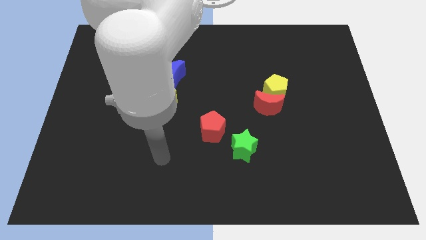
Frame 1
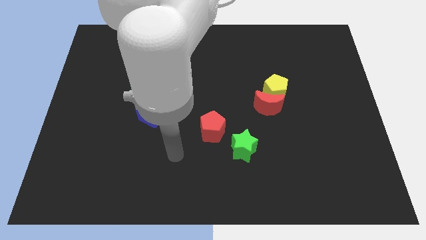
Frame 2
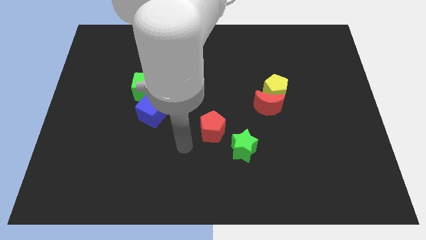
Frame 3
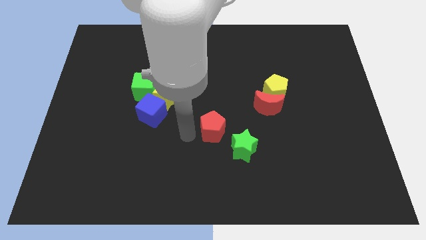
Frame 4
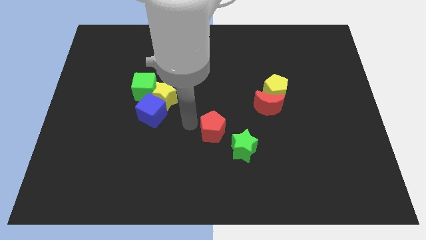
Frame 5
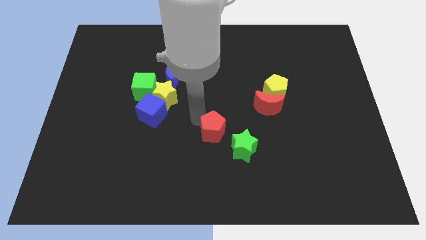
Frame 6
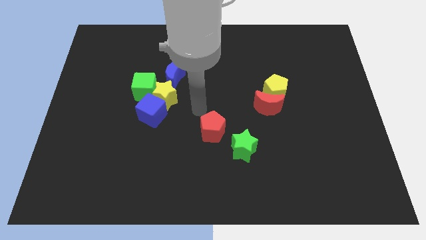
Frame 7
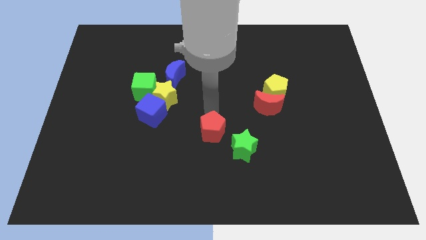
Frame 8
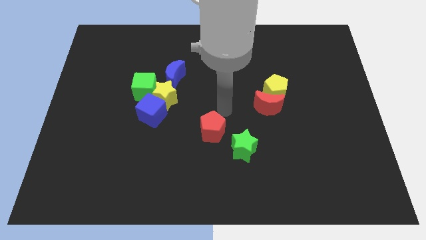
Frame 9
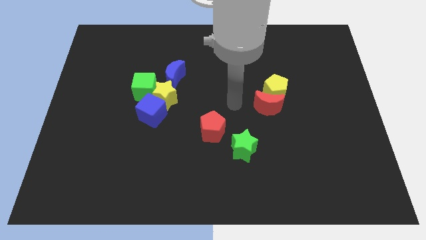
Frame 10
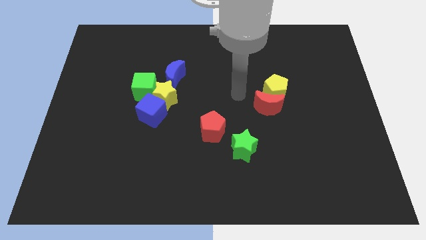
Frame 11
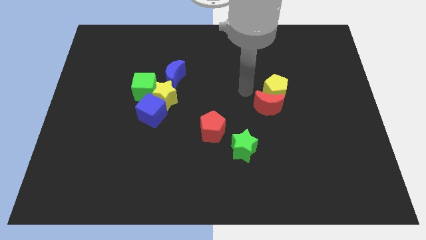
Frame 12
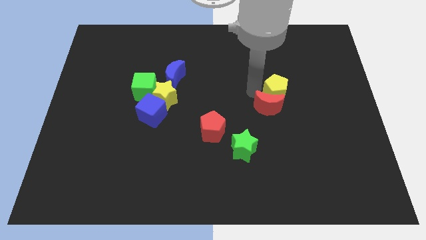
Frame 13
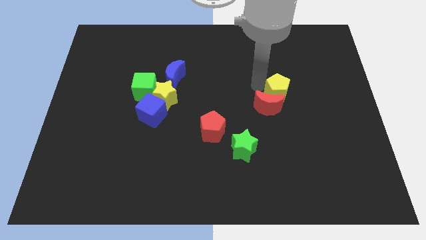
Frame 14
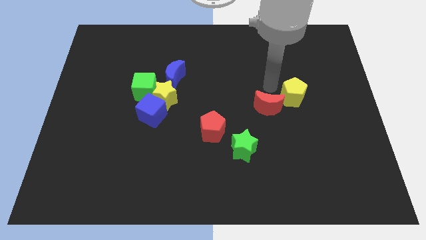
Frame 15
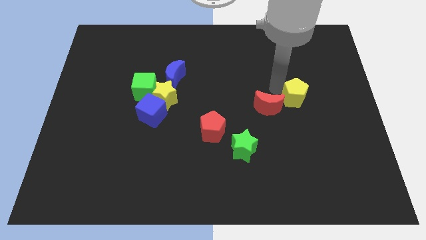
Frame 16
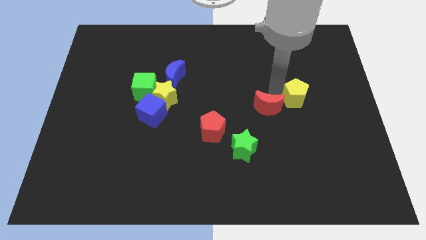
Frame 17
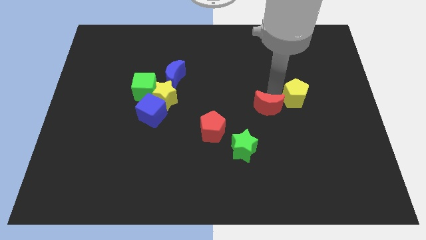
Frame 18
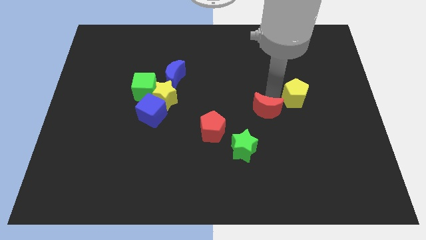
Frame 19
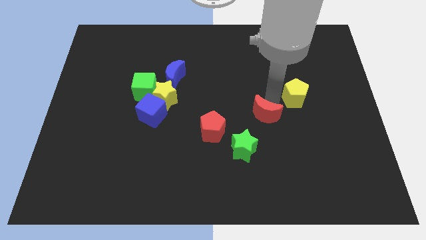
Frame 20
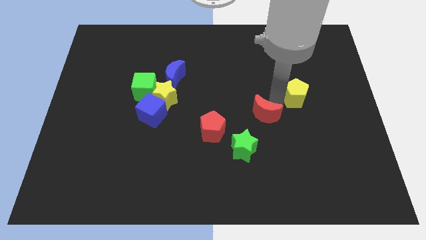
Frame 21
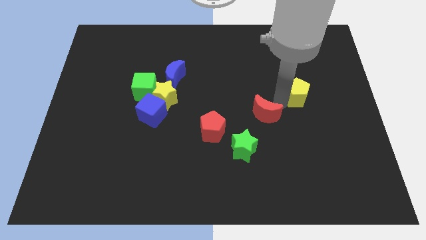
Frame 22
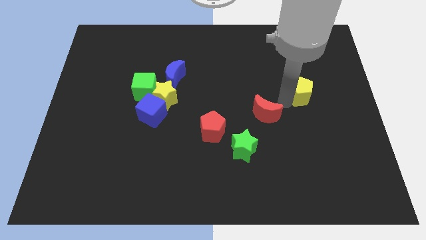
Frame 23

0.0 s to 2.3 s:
pull the red moon apart from the yellow pentagon

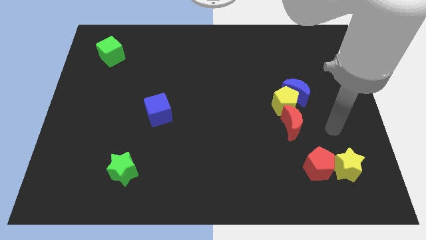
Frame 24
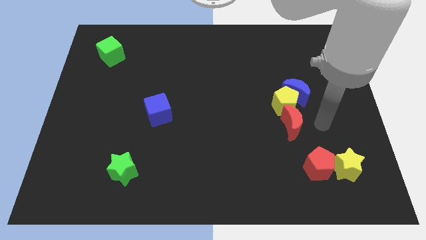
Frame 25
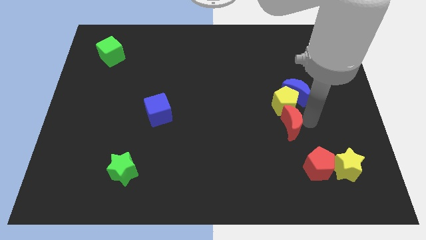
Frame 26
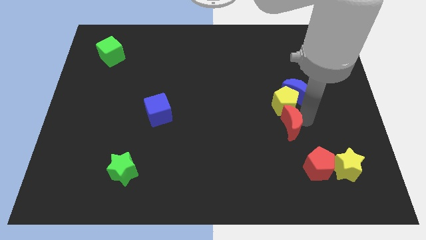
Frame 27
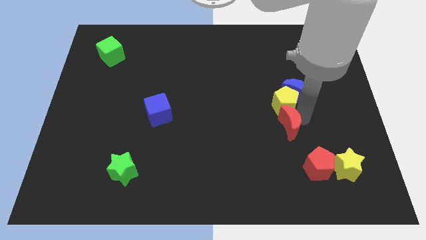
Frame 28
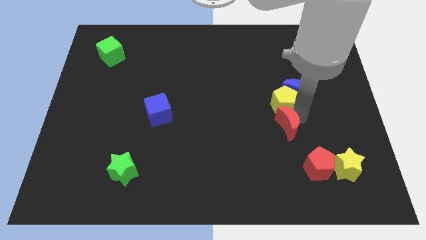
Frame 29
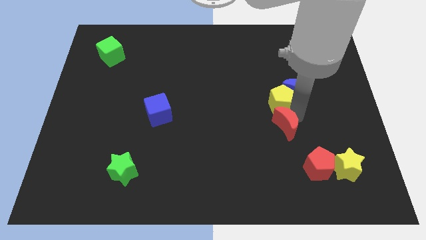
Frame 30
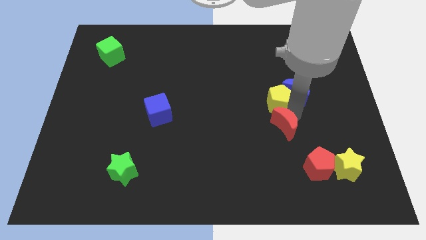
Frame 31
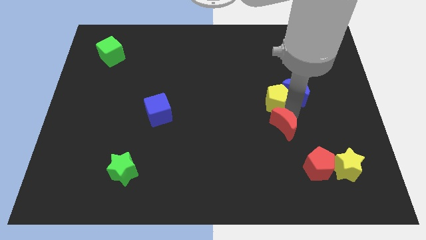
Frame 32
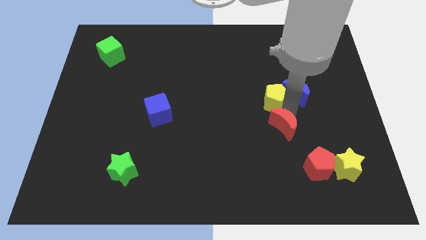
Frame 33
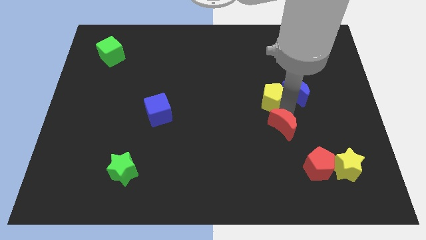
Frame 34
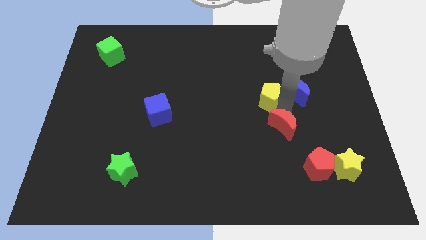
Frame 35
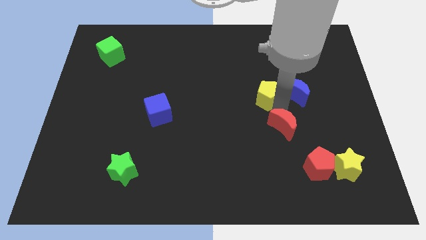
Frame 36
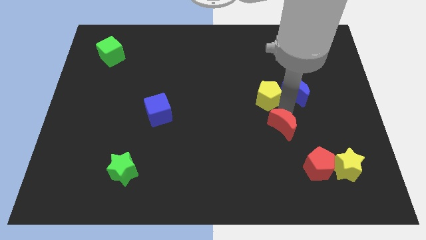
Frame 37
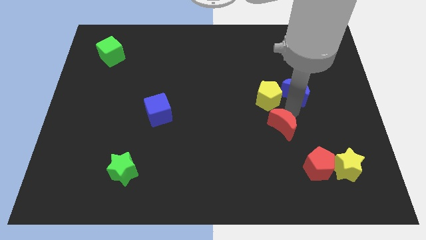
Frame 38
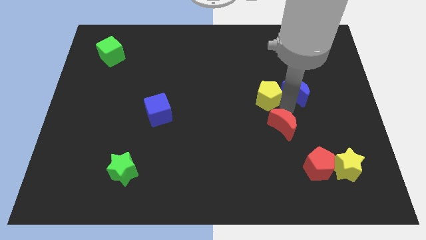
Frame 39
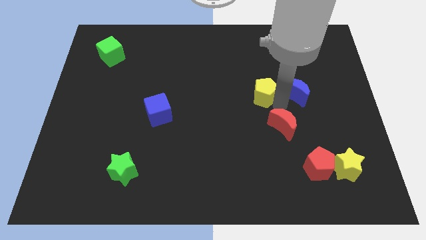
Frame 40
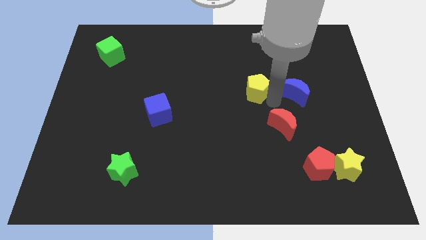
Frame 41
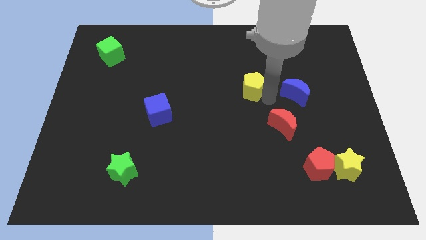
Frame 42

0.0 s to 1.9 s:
move the yellow pentagon away from the blue moon and red moon

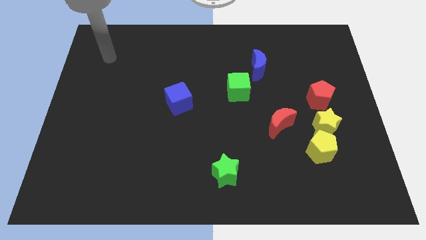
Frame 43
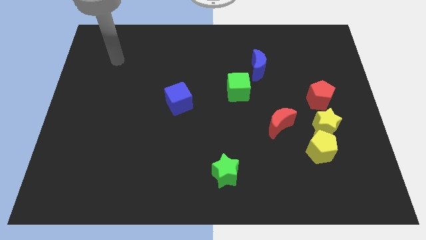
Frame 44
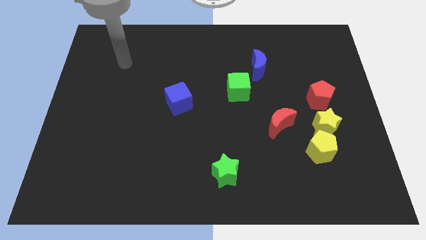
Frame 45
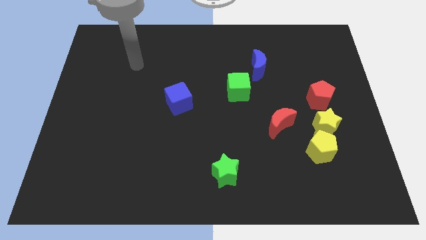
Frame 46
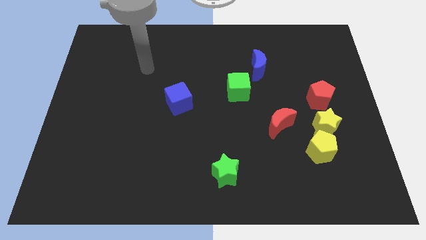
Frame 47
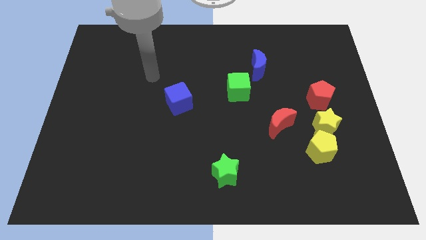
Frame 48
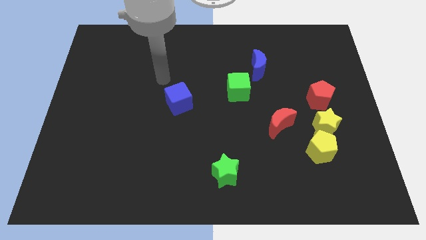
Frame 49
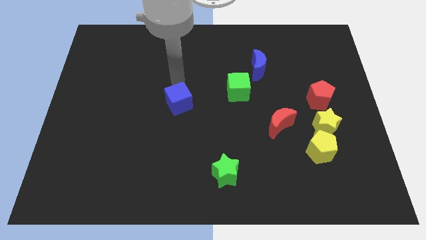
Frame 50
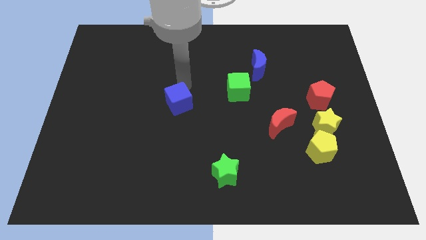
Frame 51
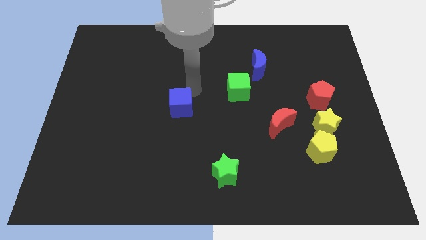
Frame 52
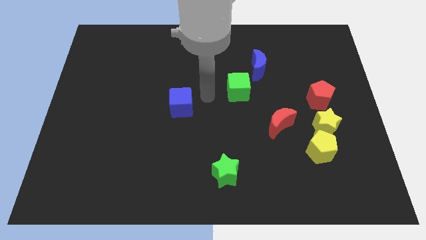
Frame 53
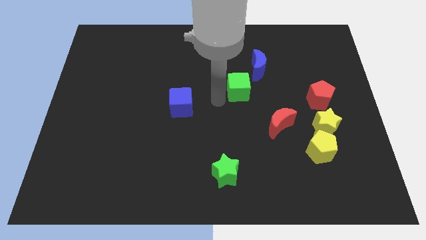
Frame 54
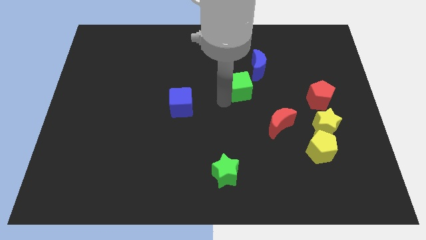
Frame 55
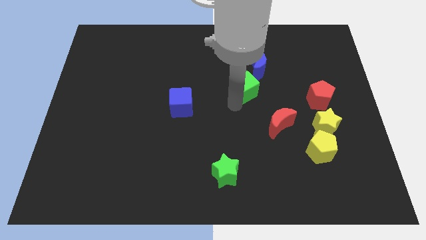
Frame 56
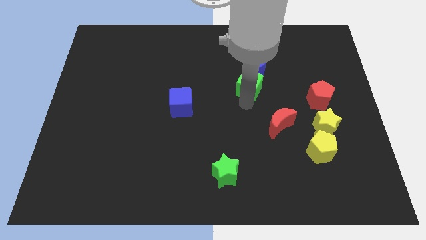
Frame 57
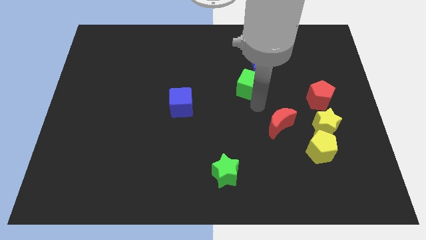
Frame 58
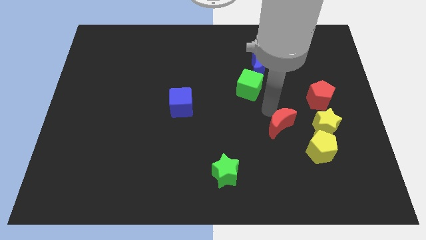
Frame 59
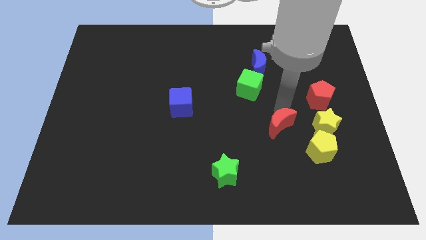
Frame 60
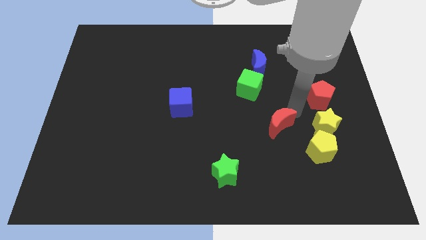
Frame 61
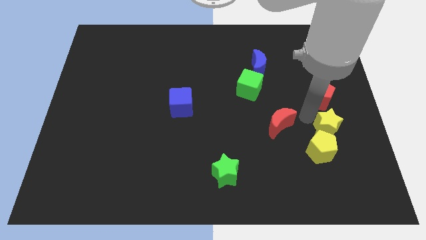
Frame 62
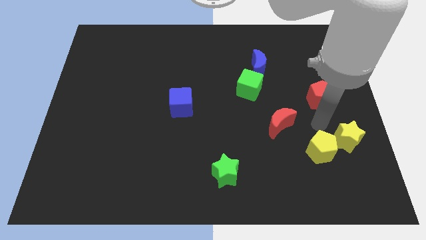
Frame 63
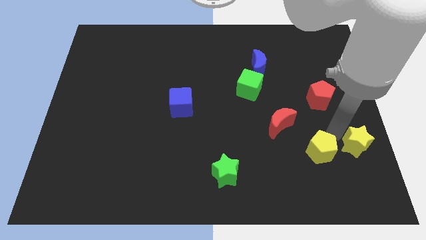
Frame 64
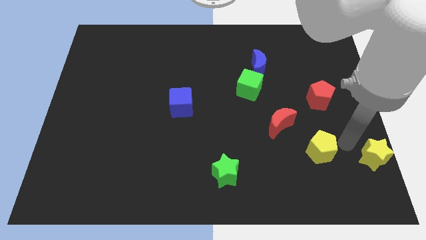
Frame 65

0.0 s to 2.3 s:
move the yellow pentagon away from the yellow star

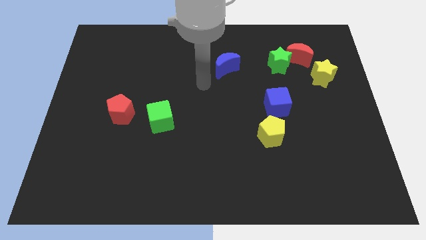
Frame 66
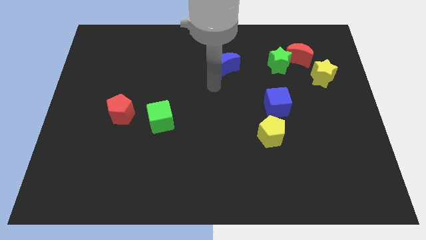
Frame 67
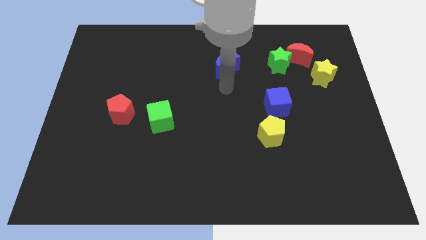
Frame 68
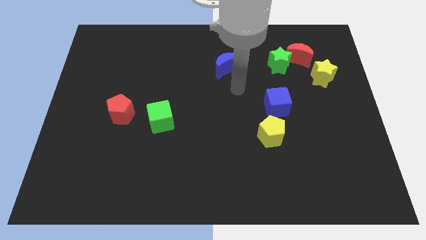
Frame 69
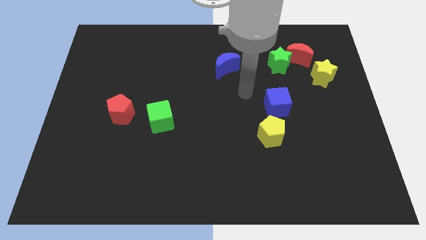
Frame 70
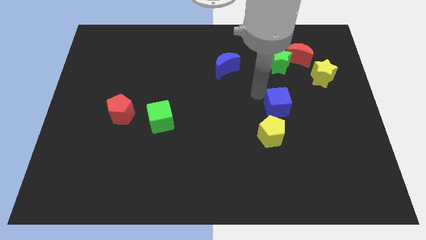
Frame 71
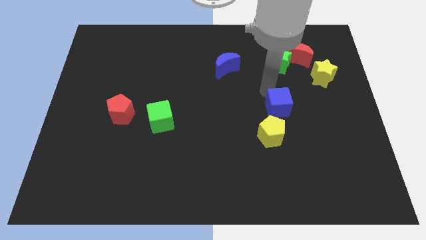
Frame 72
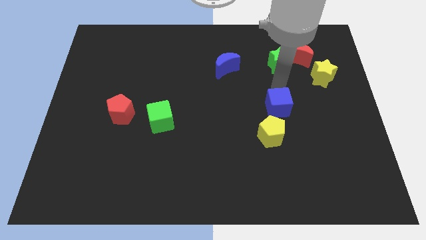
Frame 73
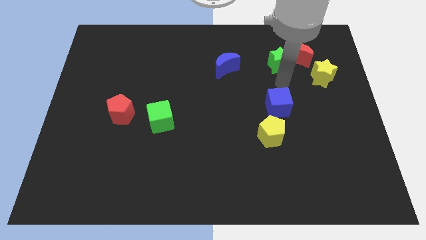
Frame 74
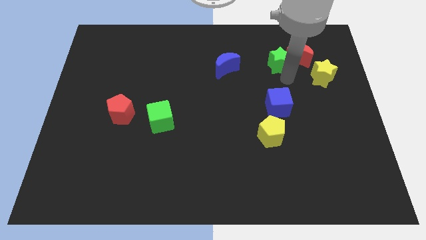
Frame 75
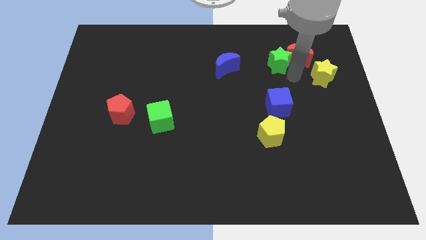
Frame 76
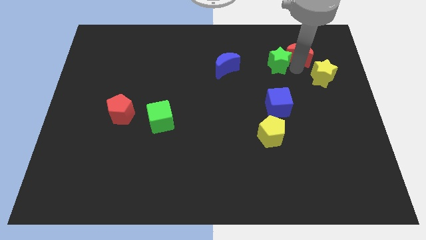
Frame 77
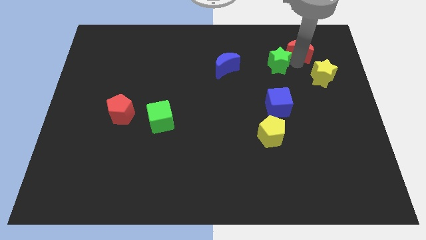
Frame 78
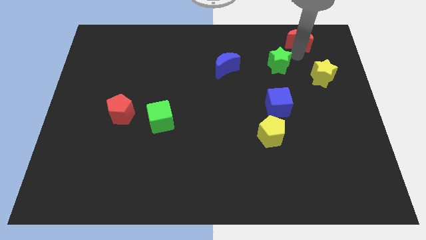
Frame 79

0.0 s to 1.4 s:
move the green star away from the red moon

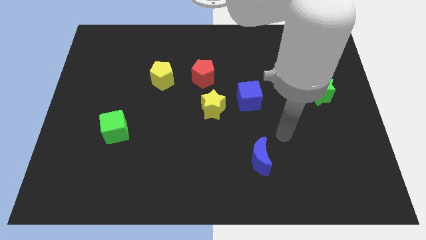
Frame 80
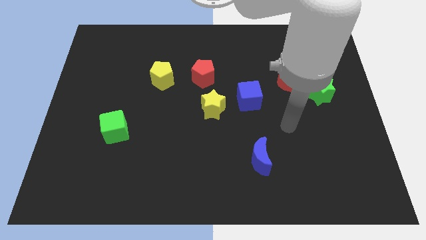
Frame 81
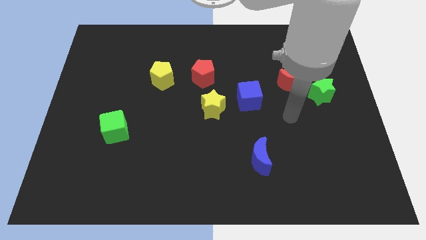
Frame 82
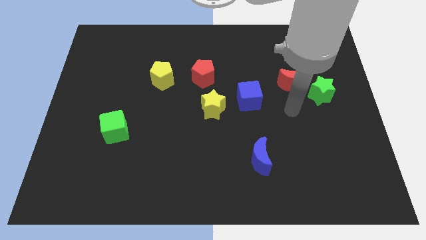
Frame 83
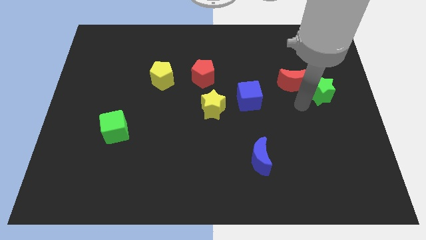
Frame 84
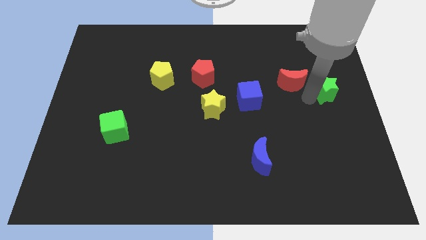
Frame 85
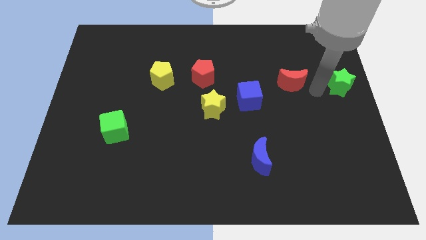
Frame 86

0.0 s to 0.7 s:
pull the red moon apart from the green star

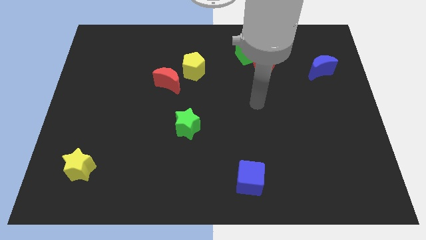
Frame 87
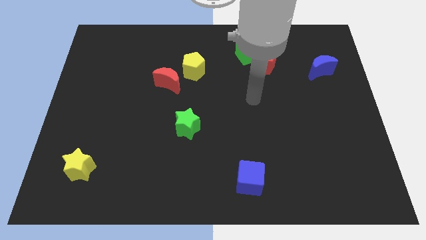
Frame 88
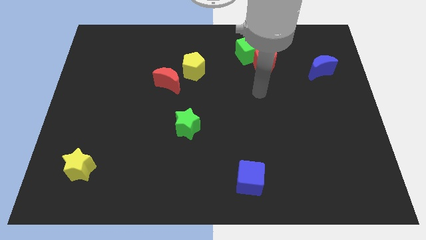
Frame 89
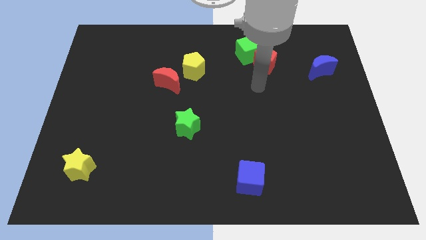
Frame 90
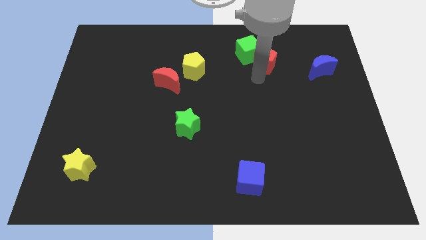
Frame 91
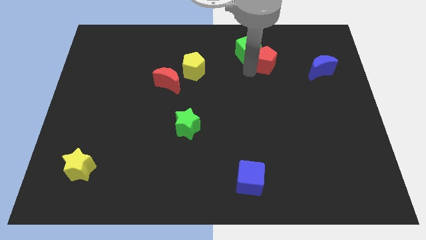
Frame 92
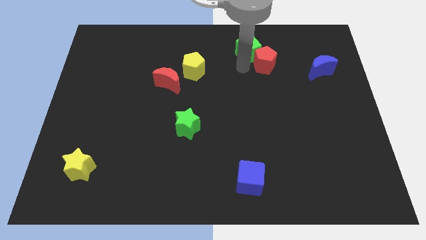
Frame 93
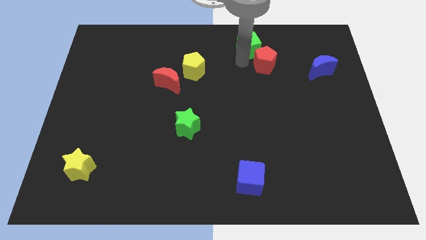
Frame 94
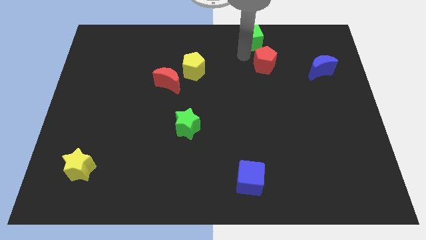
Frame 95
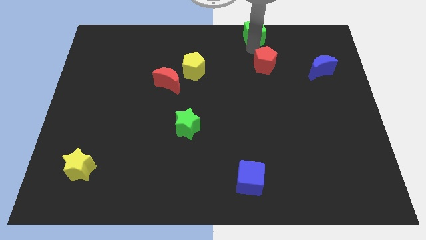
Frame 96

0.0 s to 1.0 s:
move the red pentagon away from the green cube
